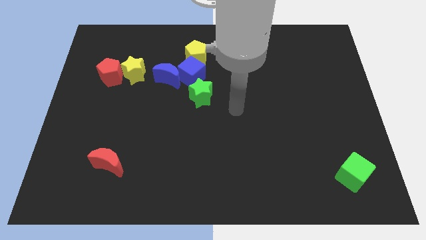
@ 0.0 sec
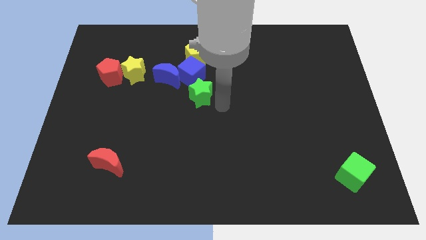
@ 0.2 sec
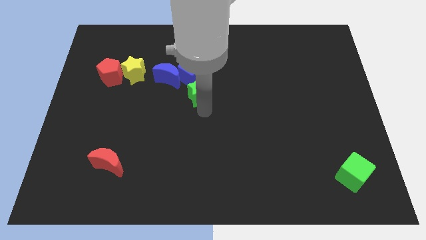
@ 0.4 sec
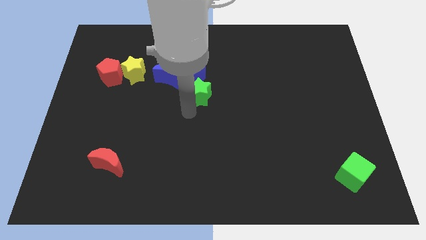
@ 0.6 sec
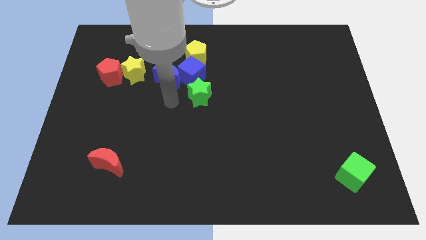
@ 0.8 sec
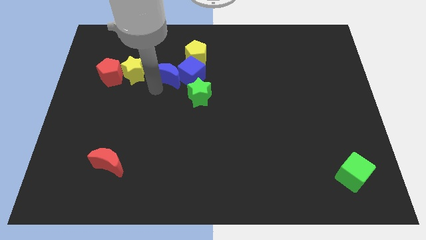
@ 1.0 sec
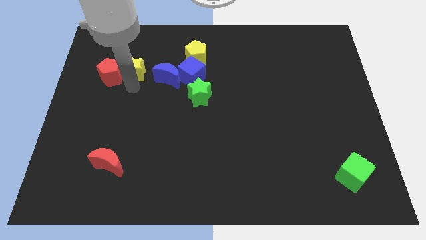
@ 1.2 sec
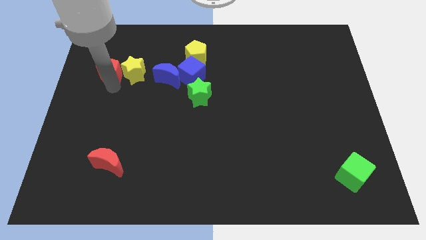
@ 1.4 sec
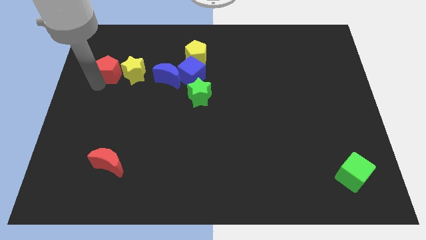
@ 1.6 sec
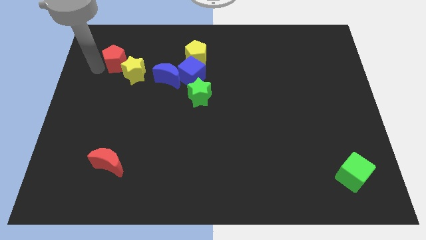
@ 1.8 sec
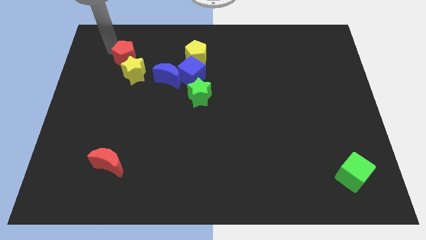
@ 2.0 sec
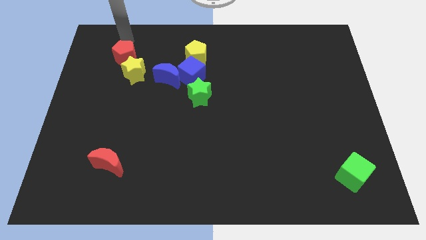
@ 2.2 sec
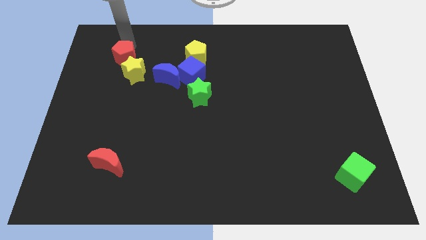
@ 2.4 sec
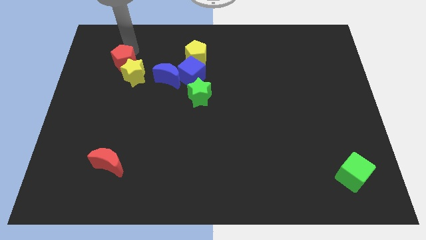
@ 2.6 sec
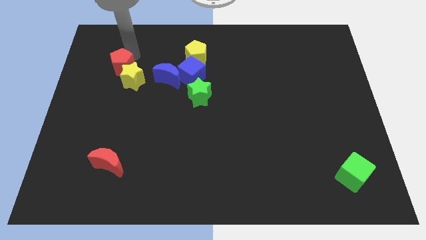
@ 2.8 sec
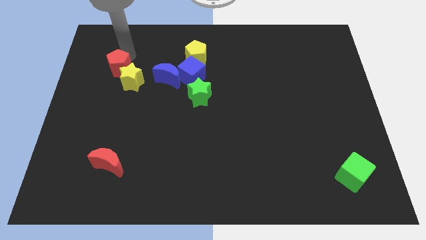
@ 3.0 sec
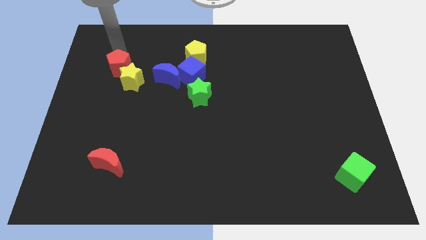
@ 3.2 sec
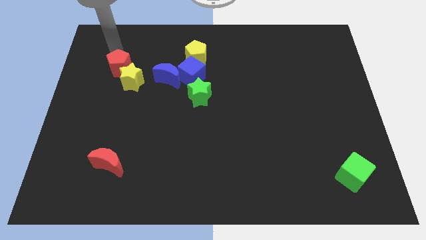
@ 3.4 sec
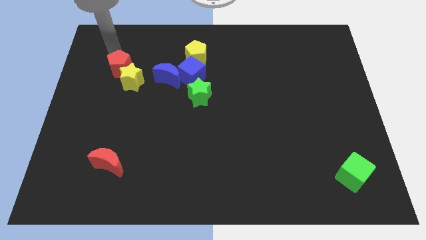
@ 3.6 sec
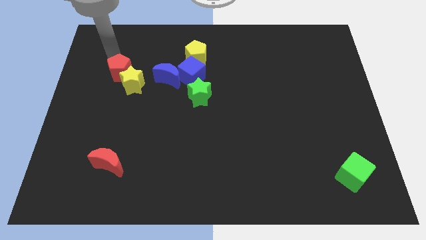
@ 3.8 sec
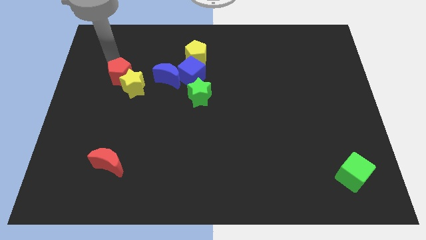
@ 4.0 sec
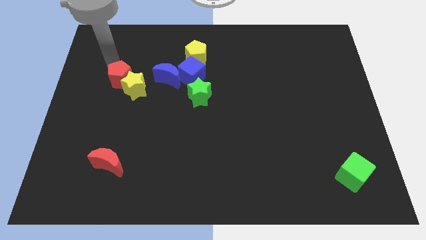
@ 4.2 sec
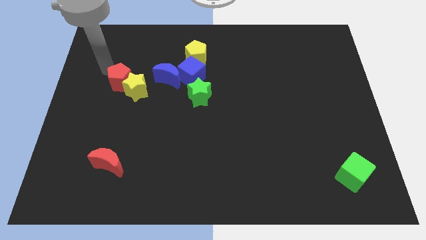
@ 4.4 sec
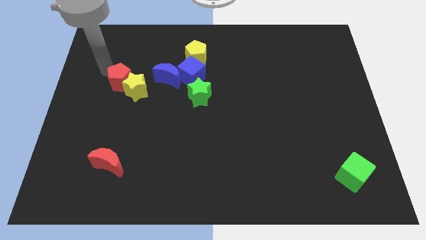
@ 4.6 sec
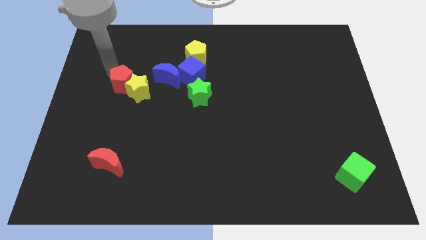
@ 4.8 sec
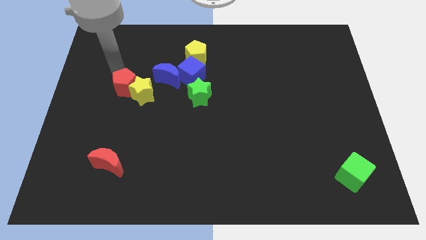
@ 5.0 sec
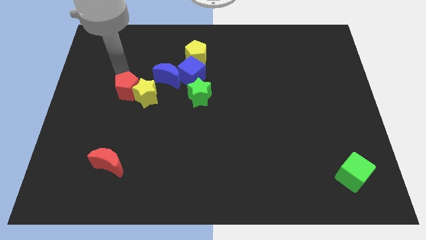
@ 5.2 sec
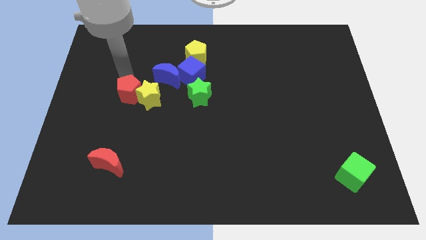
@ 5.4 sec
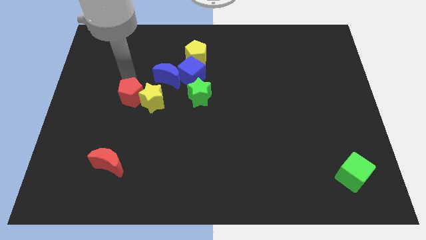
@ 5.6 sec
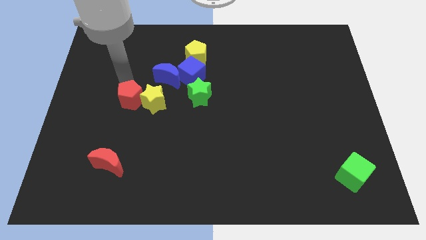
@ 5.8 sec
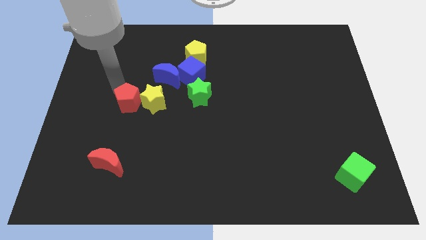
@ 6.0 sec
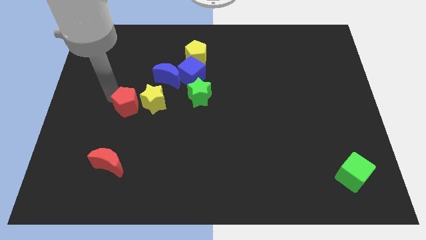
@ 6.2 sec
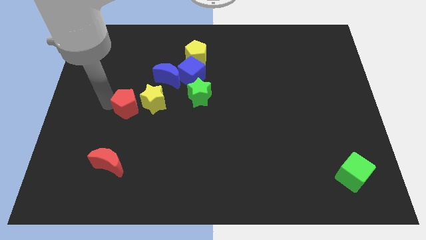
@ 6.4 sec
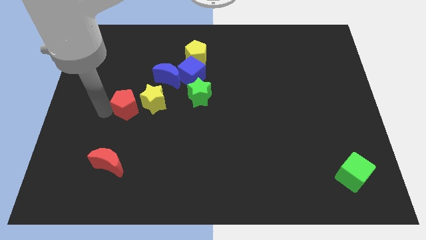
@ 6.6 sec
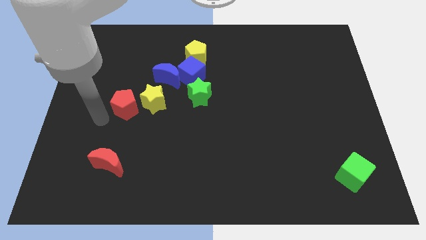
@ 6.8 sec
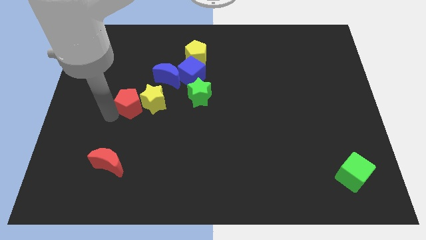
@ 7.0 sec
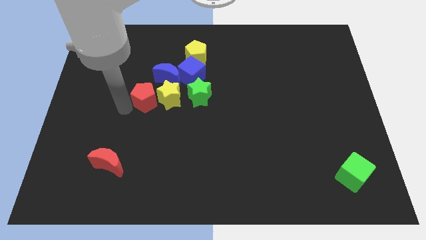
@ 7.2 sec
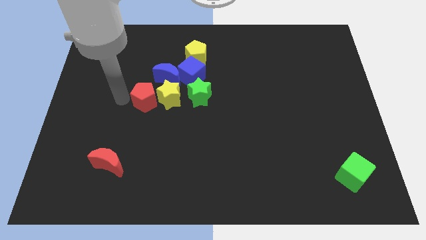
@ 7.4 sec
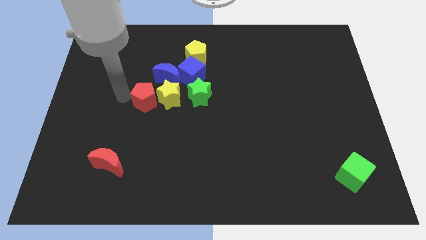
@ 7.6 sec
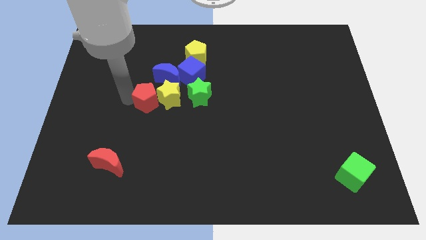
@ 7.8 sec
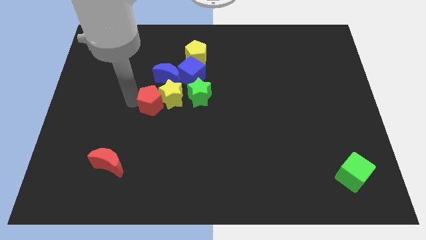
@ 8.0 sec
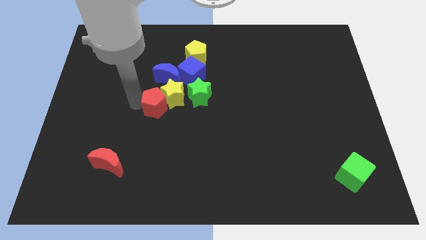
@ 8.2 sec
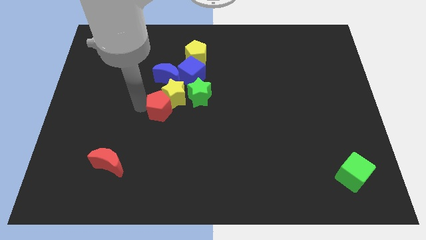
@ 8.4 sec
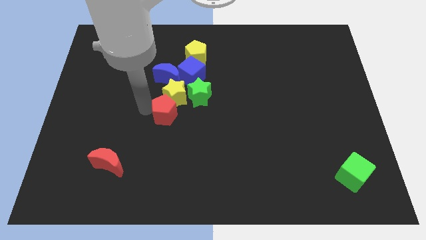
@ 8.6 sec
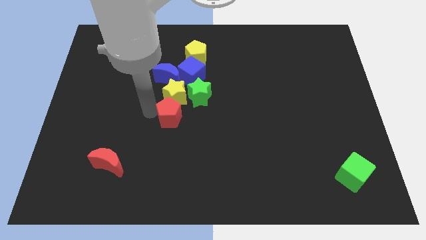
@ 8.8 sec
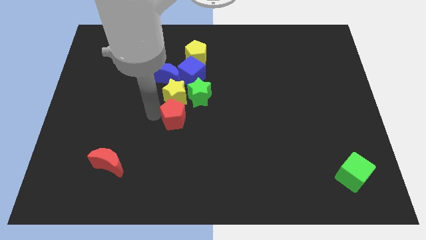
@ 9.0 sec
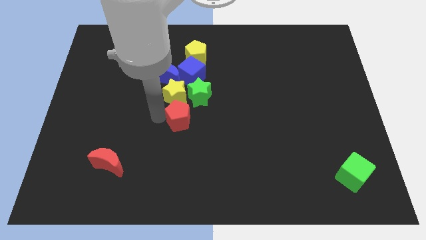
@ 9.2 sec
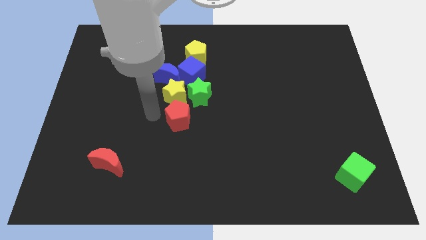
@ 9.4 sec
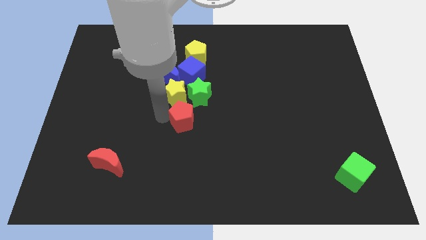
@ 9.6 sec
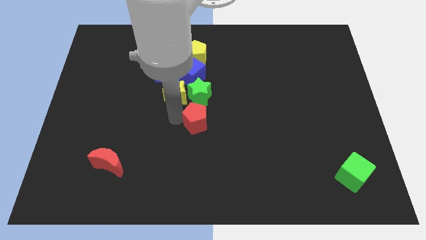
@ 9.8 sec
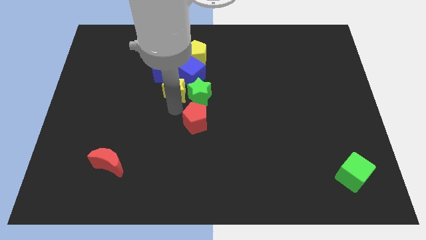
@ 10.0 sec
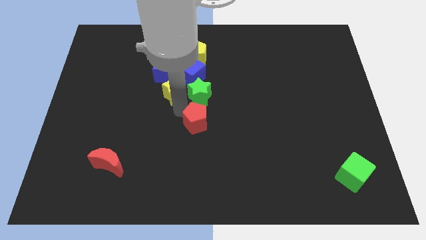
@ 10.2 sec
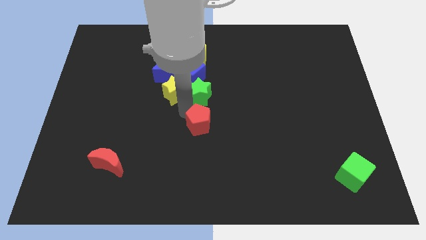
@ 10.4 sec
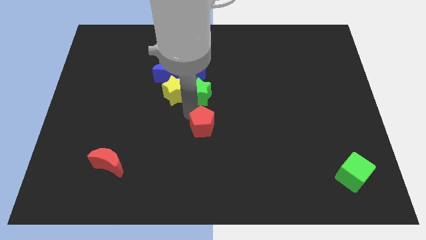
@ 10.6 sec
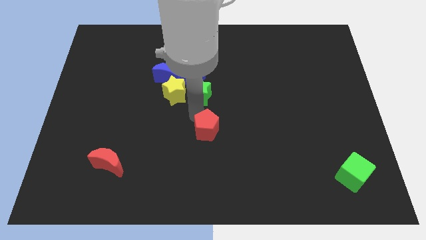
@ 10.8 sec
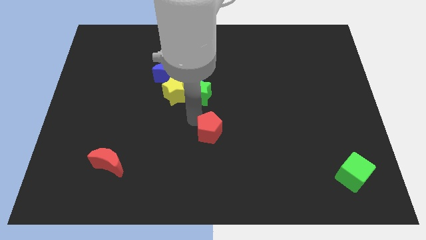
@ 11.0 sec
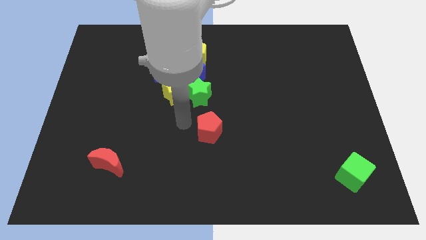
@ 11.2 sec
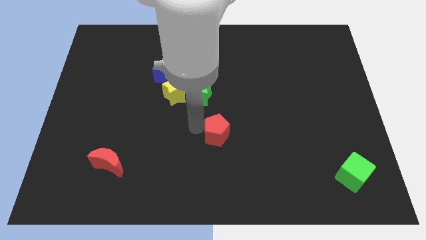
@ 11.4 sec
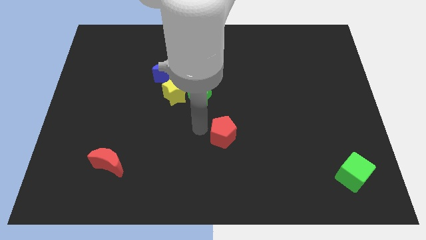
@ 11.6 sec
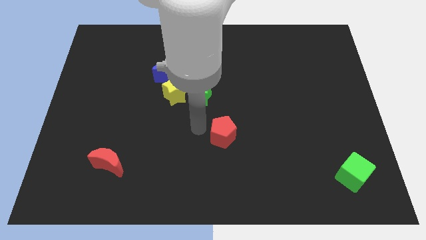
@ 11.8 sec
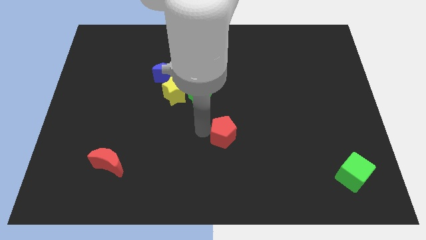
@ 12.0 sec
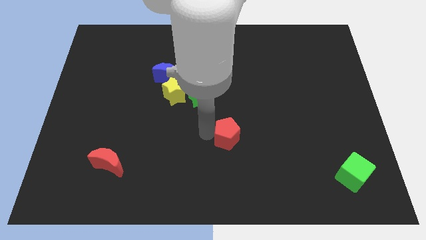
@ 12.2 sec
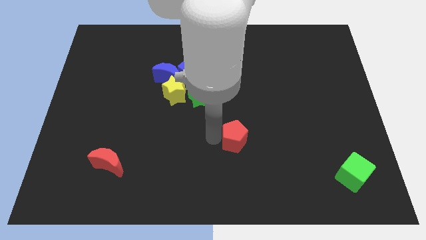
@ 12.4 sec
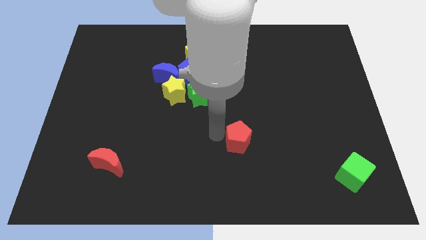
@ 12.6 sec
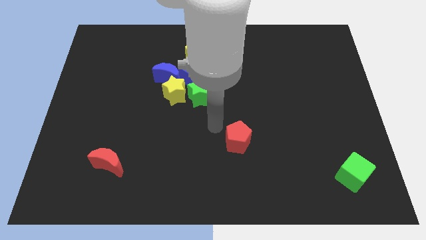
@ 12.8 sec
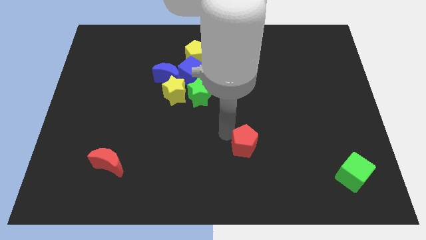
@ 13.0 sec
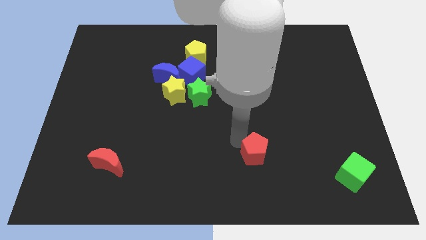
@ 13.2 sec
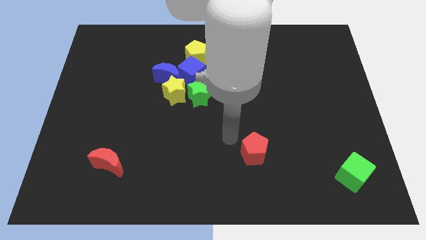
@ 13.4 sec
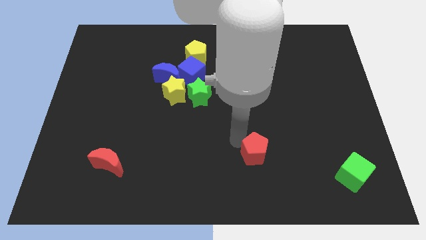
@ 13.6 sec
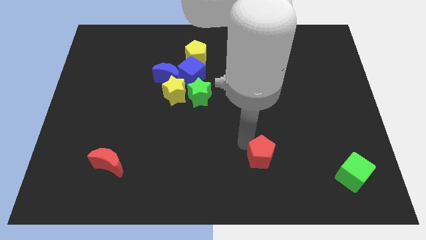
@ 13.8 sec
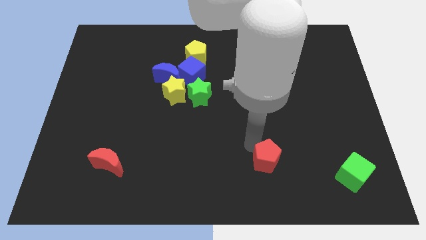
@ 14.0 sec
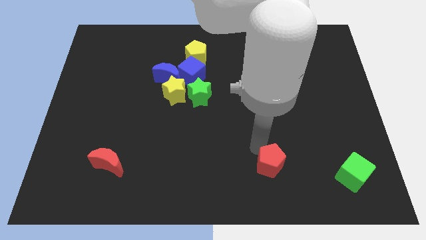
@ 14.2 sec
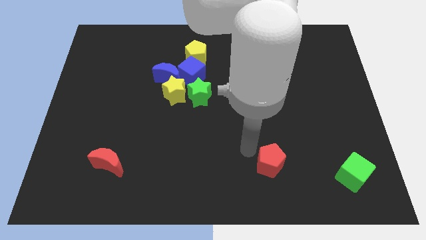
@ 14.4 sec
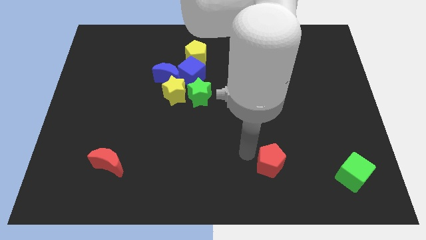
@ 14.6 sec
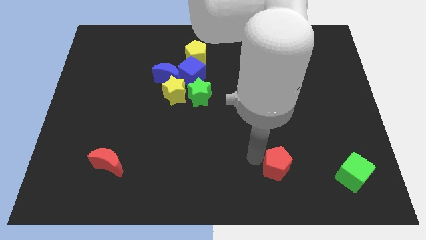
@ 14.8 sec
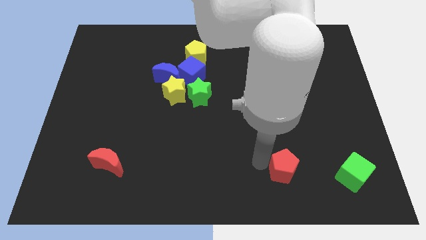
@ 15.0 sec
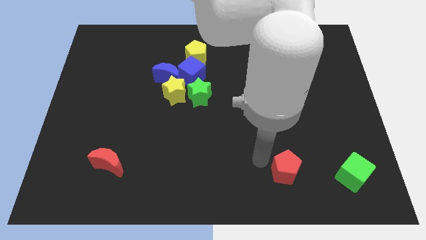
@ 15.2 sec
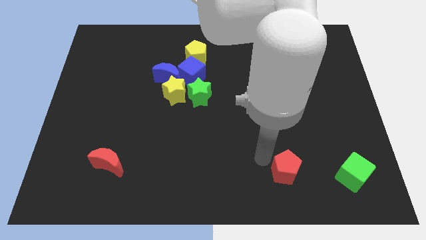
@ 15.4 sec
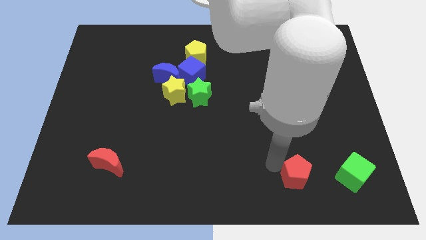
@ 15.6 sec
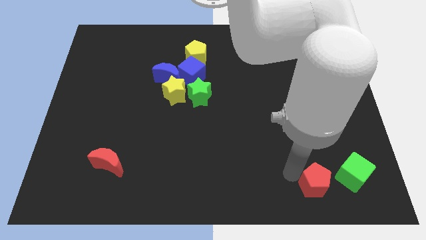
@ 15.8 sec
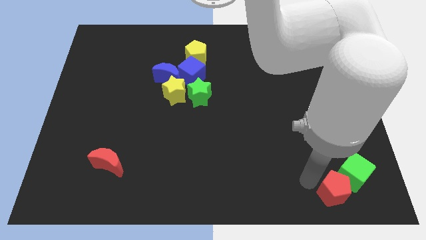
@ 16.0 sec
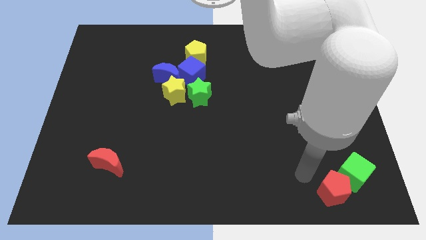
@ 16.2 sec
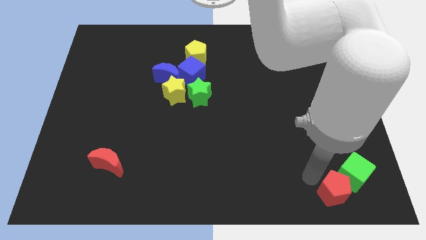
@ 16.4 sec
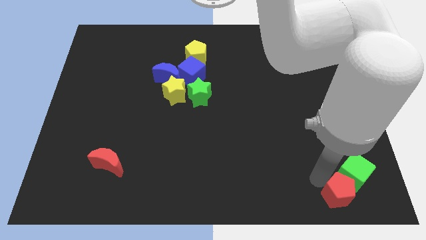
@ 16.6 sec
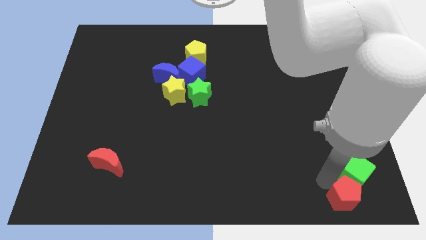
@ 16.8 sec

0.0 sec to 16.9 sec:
slide the red pentagon to the bottom right corner
